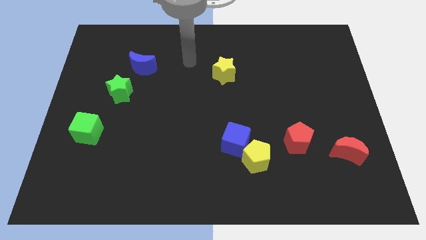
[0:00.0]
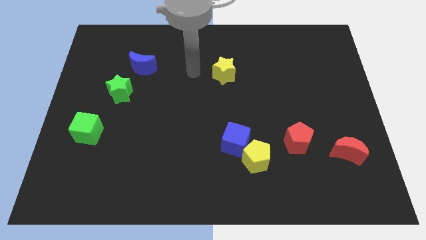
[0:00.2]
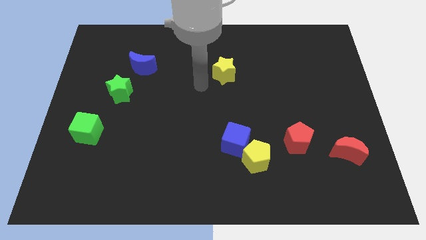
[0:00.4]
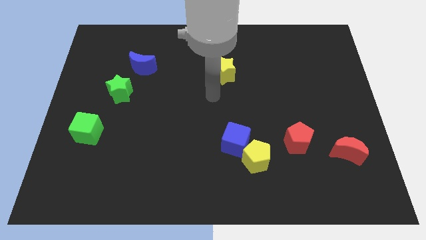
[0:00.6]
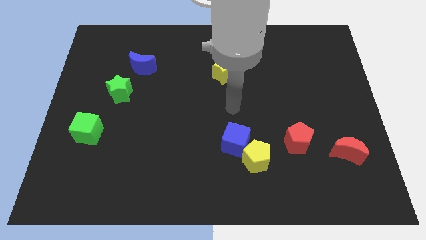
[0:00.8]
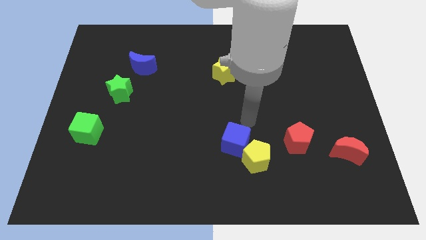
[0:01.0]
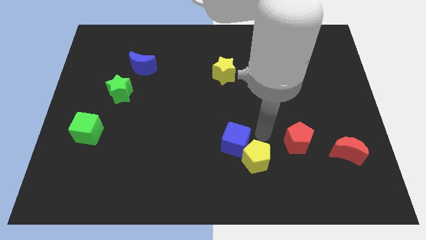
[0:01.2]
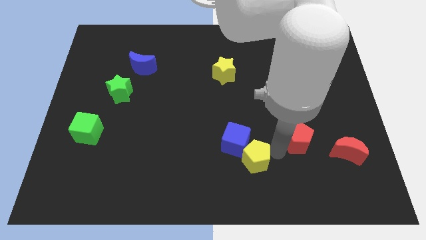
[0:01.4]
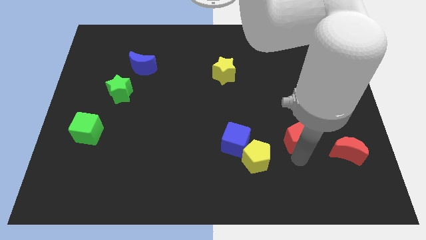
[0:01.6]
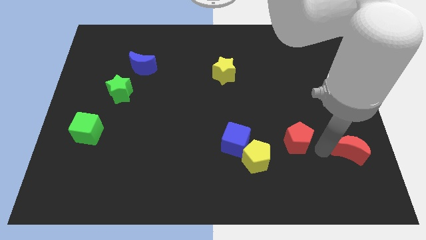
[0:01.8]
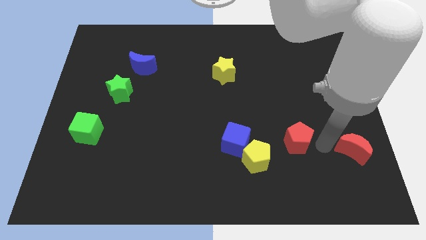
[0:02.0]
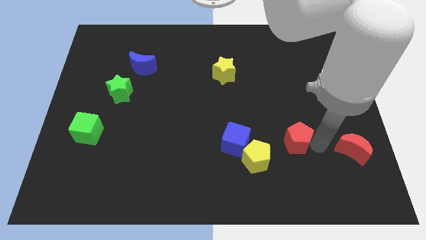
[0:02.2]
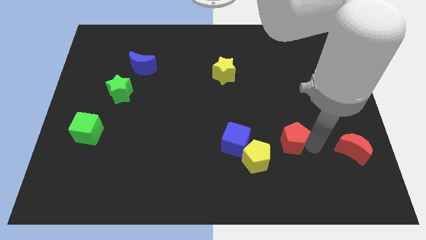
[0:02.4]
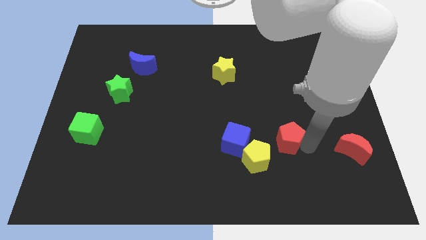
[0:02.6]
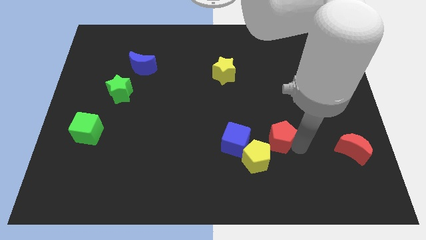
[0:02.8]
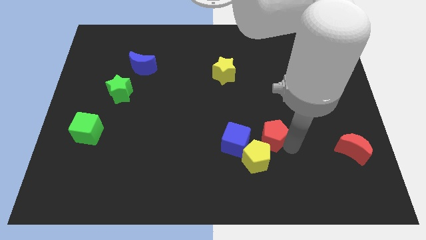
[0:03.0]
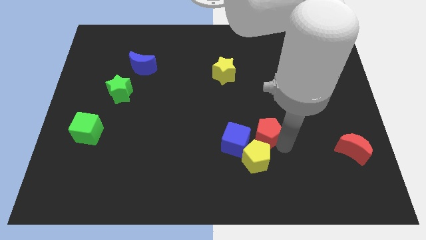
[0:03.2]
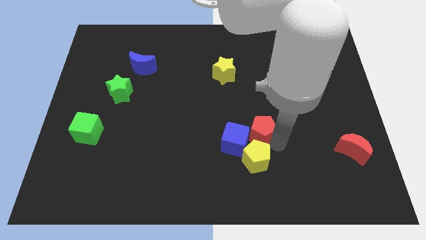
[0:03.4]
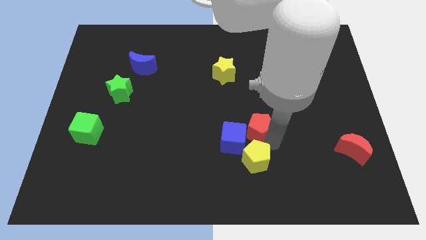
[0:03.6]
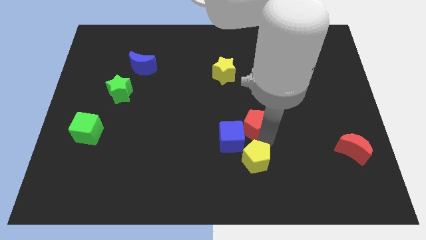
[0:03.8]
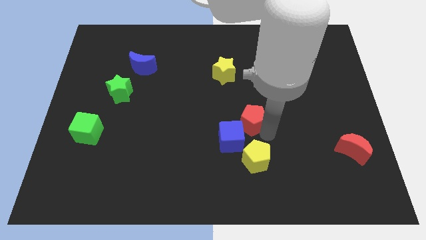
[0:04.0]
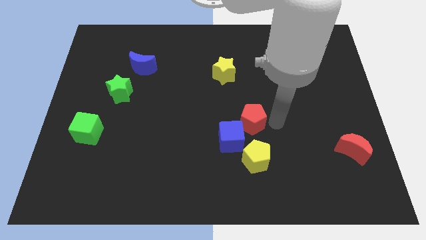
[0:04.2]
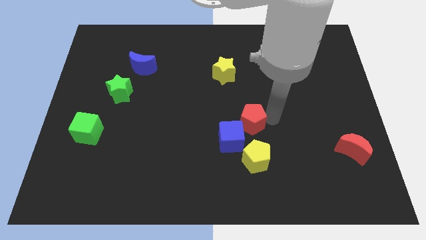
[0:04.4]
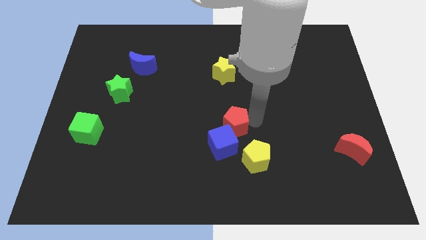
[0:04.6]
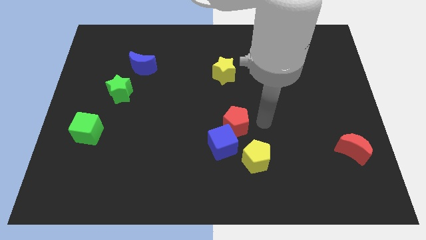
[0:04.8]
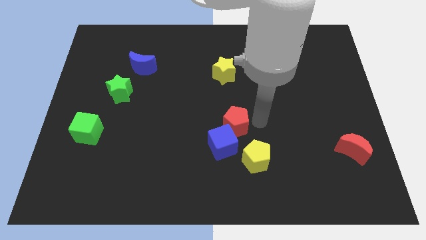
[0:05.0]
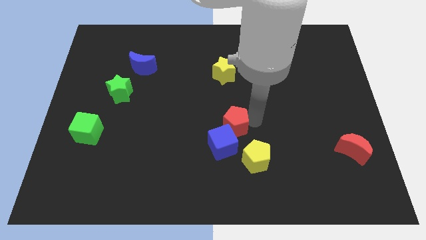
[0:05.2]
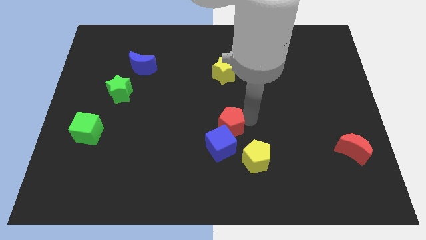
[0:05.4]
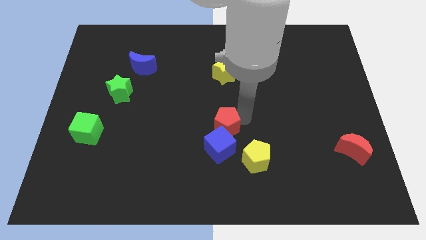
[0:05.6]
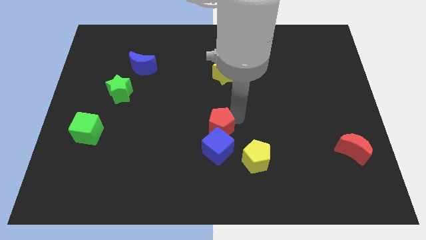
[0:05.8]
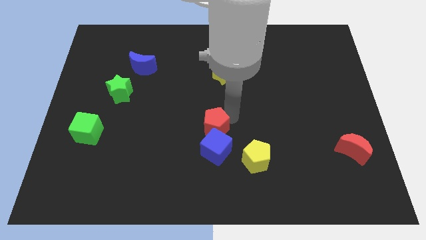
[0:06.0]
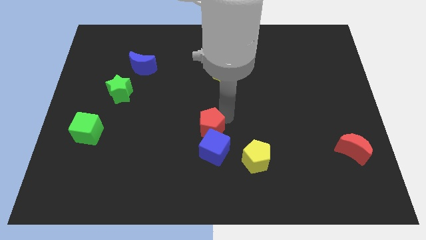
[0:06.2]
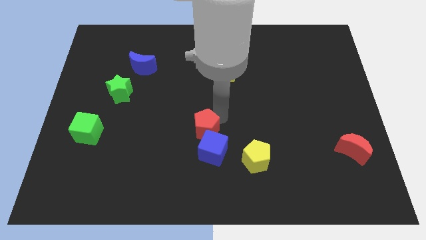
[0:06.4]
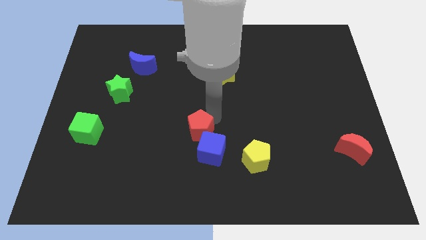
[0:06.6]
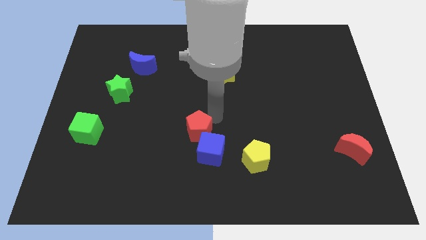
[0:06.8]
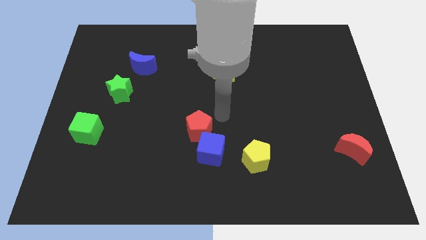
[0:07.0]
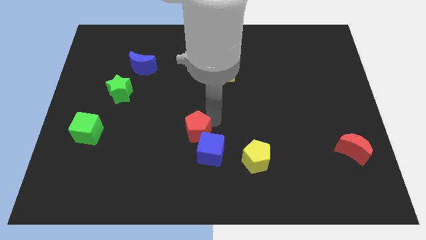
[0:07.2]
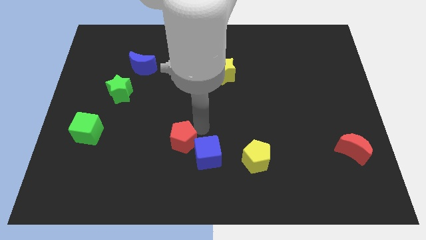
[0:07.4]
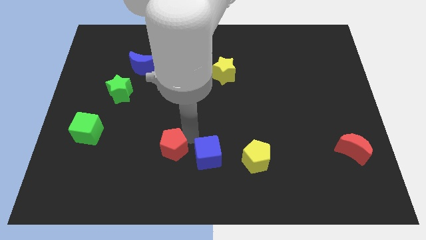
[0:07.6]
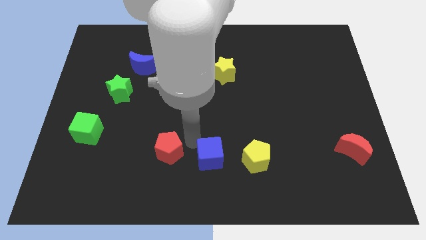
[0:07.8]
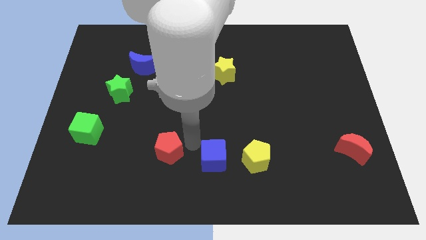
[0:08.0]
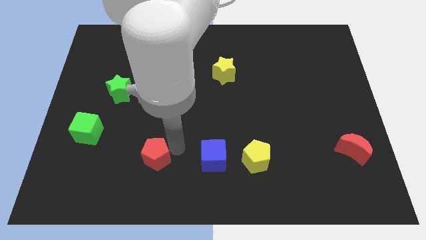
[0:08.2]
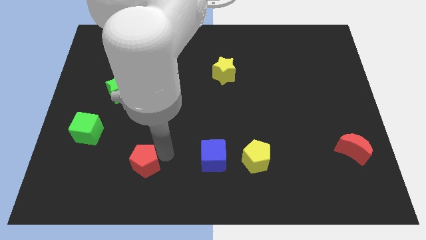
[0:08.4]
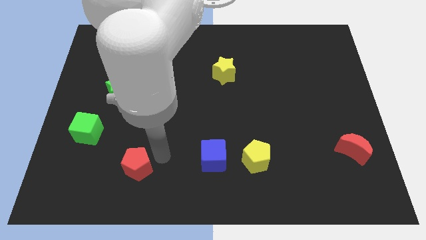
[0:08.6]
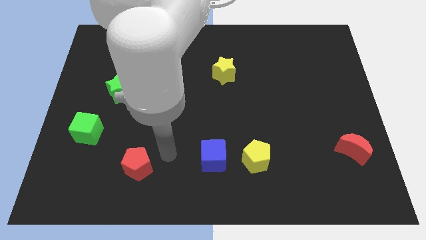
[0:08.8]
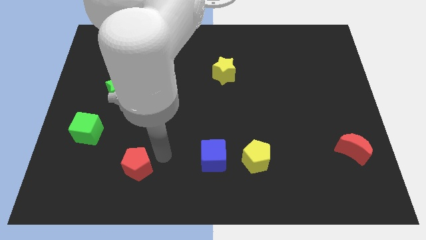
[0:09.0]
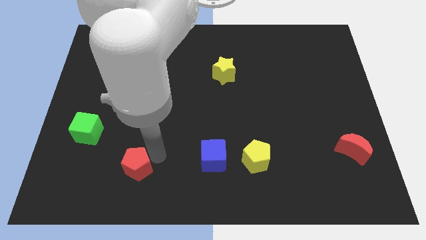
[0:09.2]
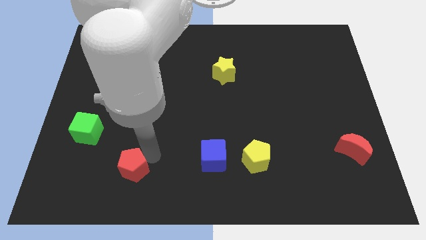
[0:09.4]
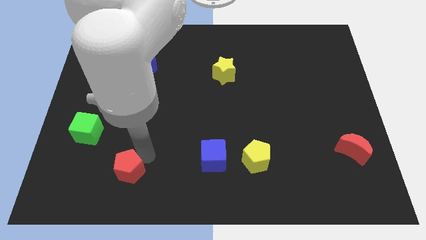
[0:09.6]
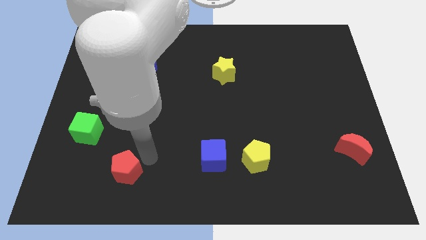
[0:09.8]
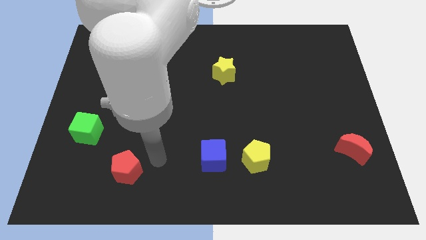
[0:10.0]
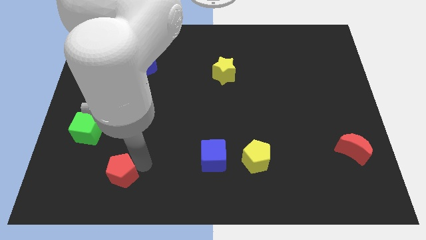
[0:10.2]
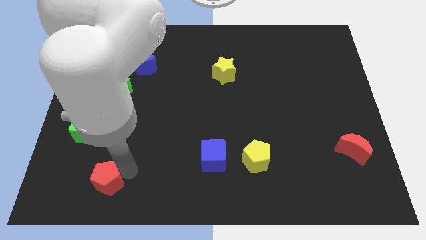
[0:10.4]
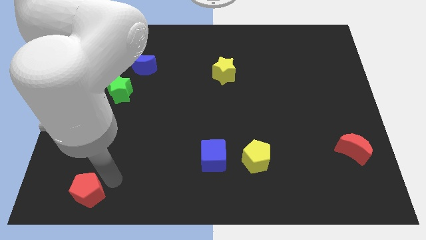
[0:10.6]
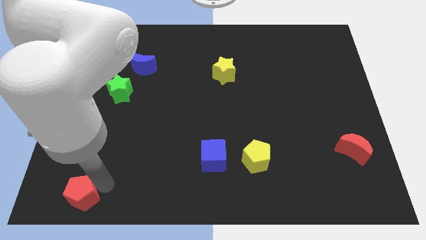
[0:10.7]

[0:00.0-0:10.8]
push the red pentagon to the bottom left corner

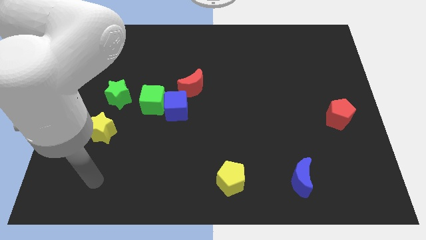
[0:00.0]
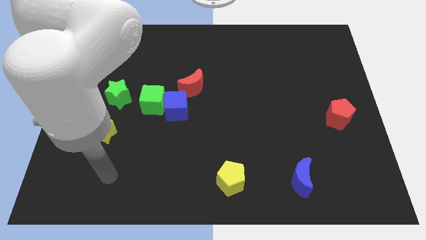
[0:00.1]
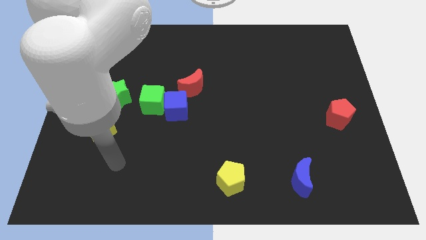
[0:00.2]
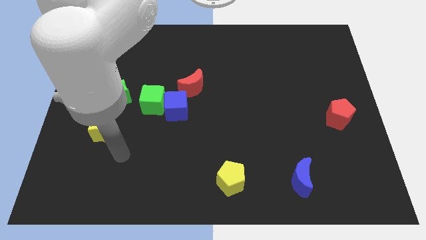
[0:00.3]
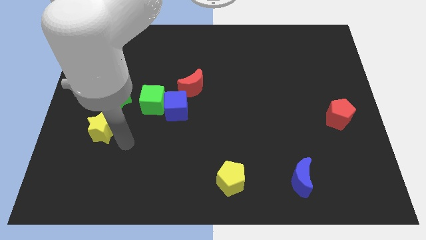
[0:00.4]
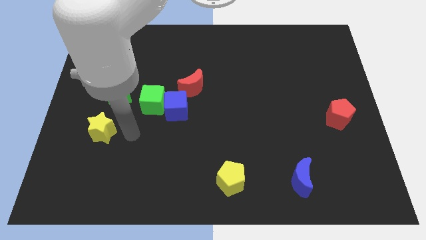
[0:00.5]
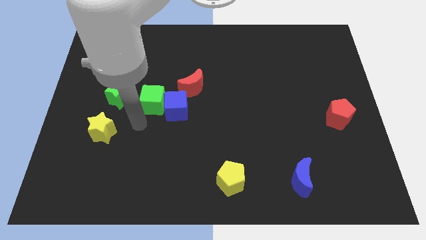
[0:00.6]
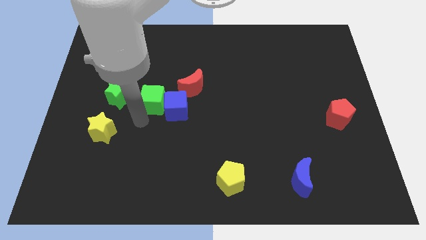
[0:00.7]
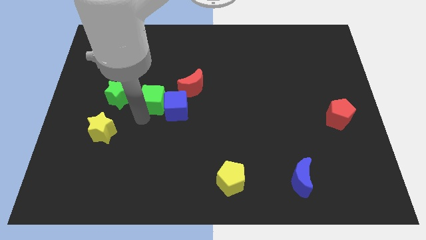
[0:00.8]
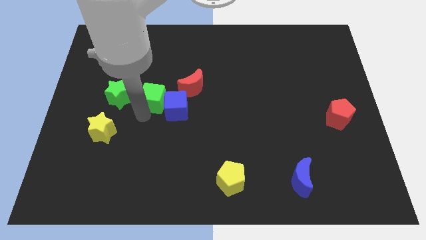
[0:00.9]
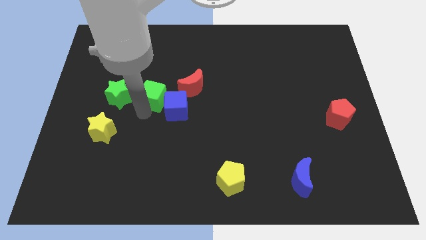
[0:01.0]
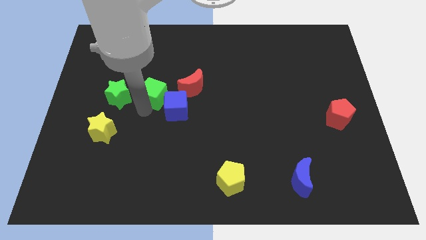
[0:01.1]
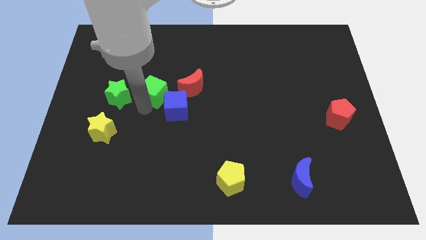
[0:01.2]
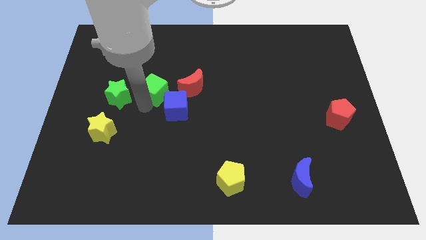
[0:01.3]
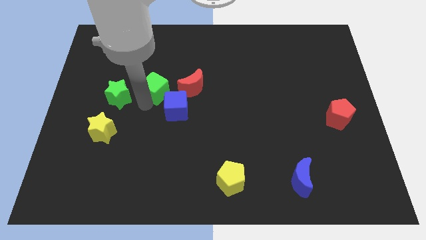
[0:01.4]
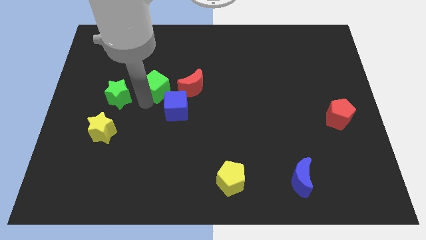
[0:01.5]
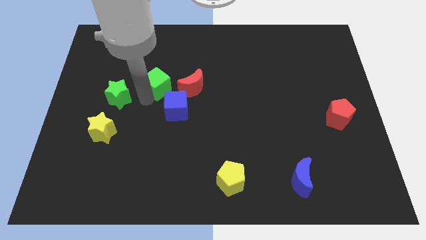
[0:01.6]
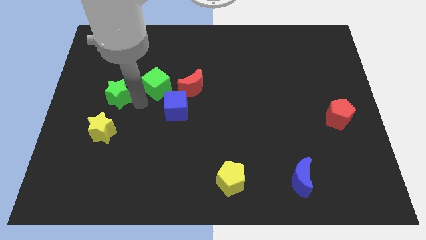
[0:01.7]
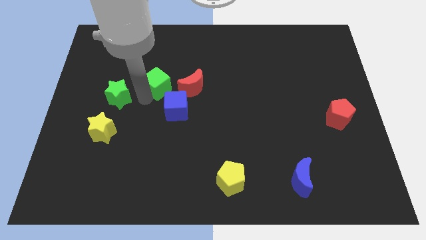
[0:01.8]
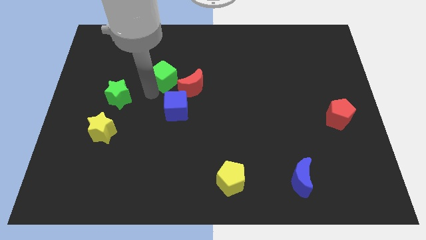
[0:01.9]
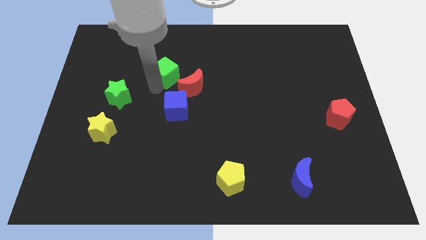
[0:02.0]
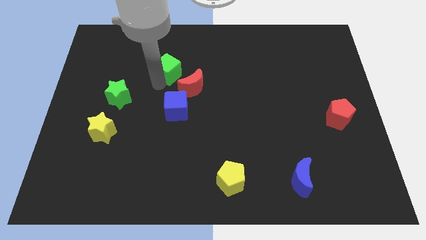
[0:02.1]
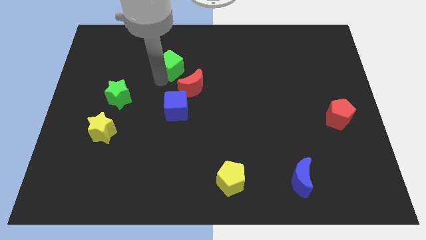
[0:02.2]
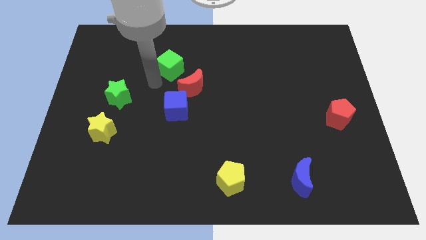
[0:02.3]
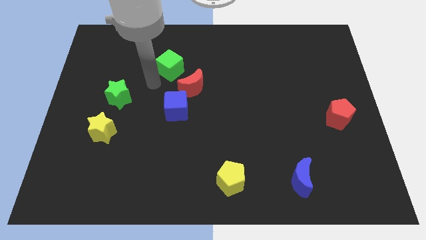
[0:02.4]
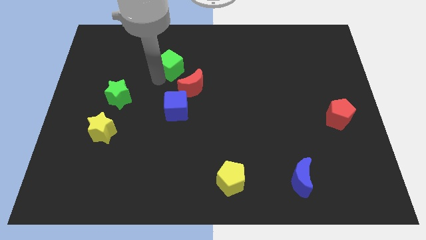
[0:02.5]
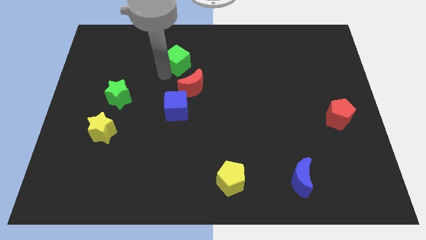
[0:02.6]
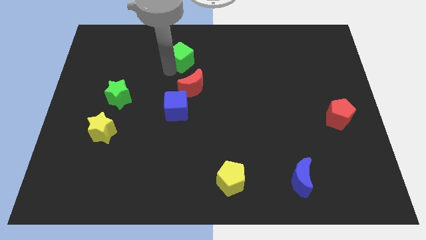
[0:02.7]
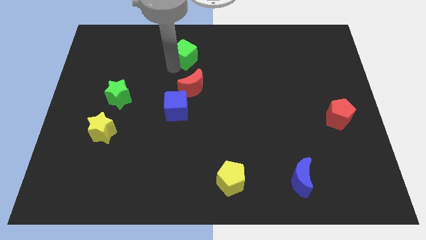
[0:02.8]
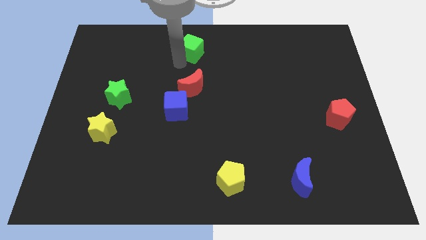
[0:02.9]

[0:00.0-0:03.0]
slide the green cube to the towards your base
